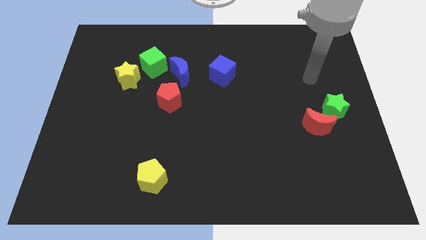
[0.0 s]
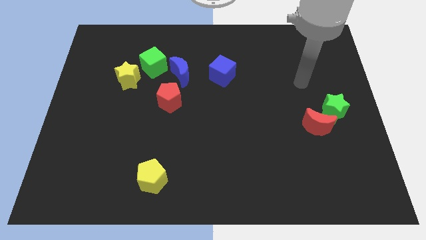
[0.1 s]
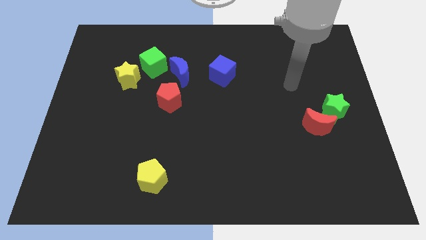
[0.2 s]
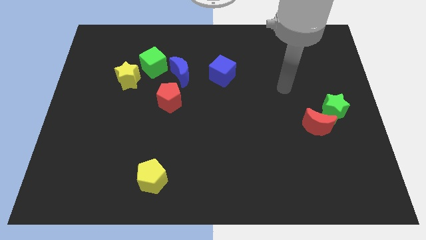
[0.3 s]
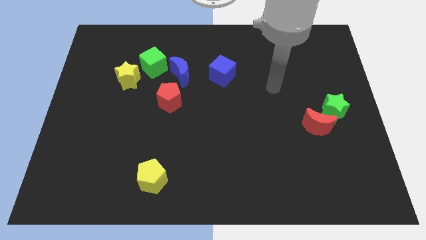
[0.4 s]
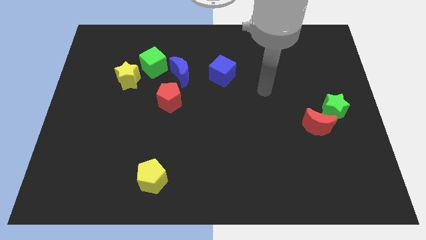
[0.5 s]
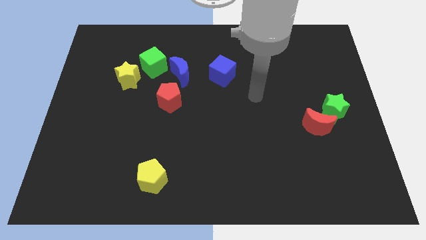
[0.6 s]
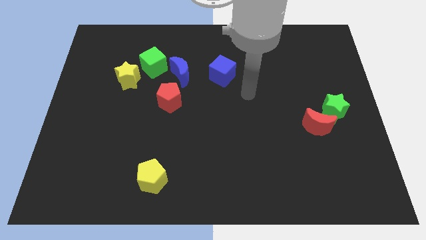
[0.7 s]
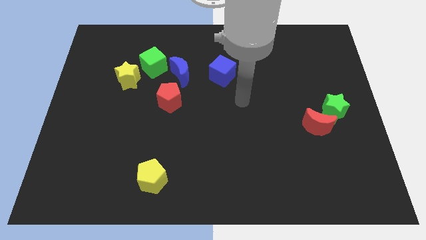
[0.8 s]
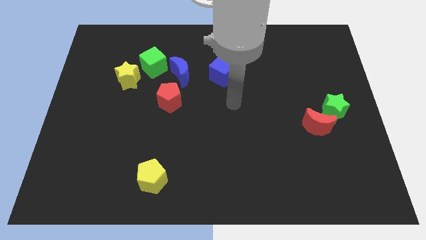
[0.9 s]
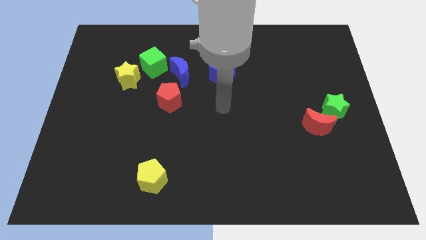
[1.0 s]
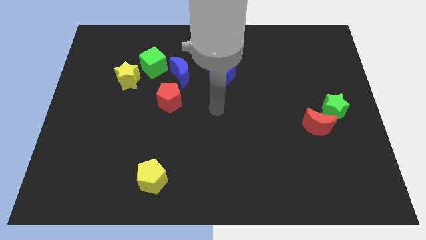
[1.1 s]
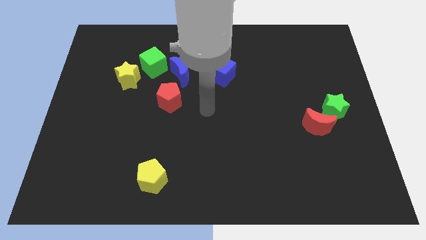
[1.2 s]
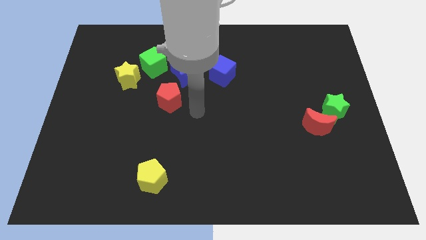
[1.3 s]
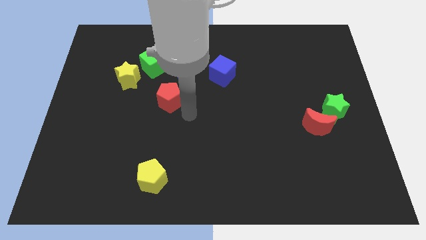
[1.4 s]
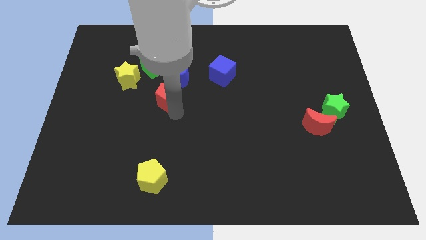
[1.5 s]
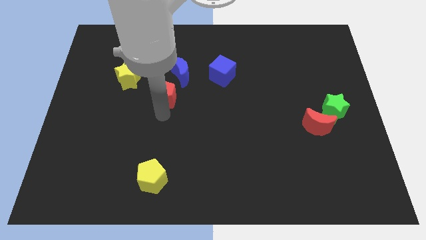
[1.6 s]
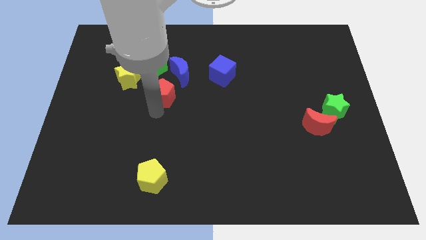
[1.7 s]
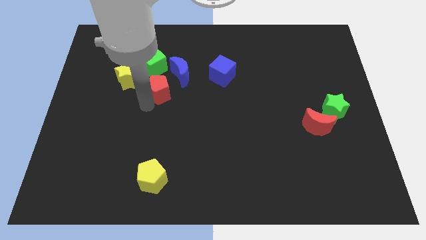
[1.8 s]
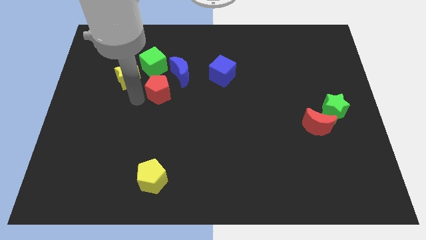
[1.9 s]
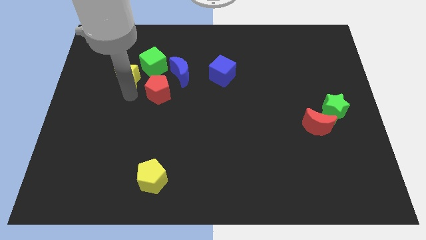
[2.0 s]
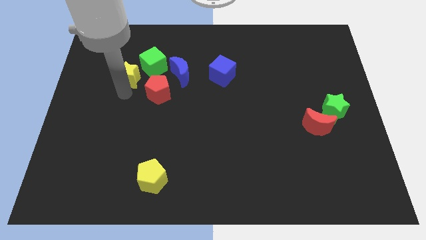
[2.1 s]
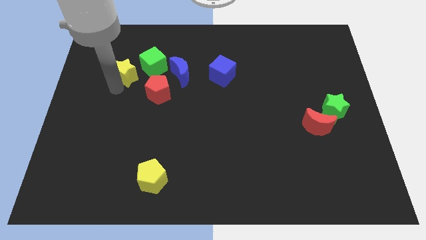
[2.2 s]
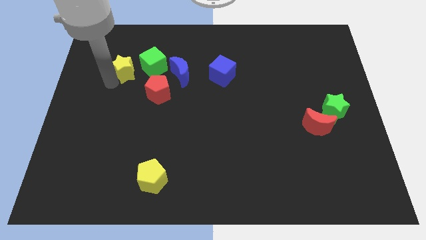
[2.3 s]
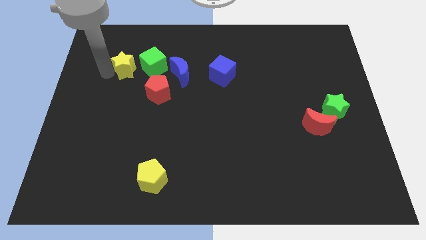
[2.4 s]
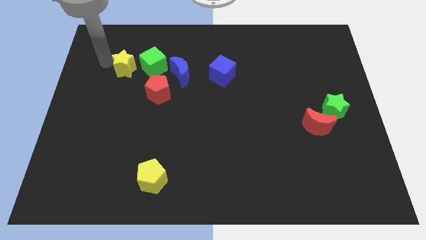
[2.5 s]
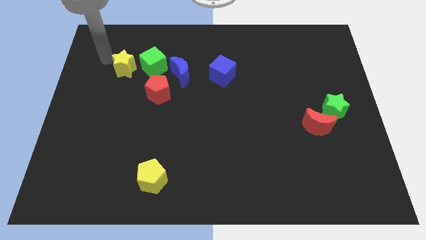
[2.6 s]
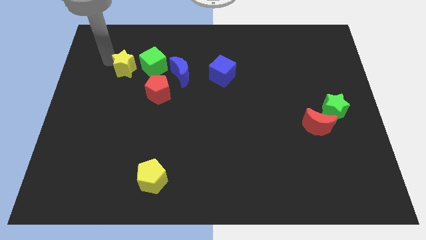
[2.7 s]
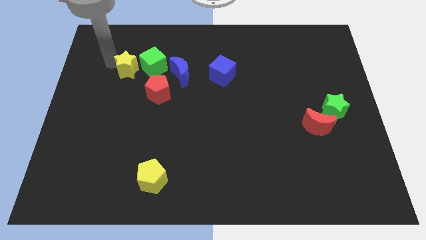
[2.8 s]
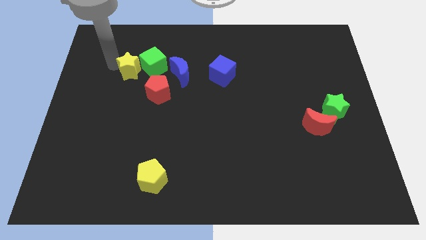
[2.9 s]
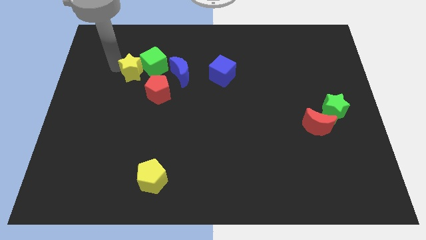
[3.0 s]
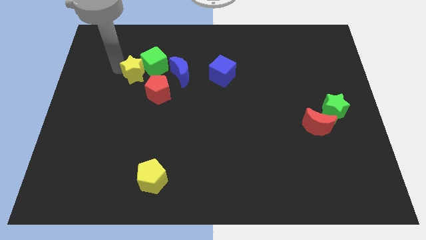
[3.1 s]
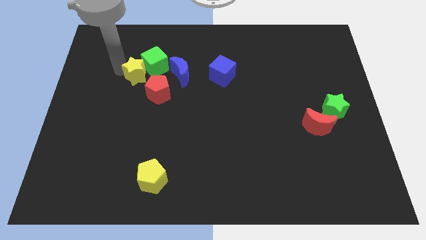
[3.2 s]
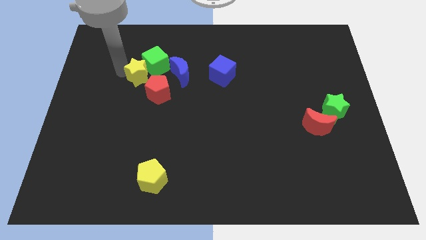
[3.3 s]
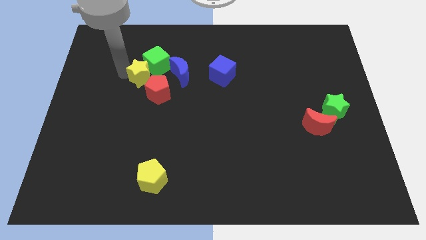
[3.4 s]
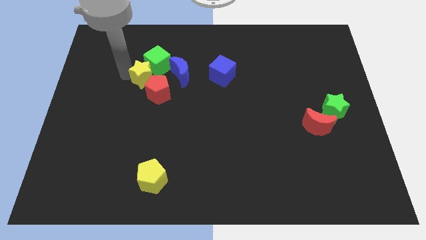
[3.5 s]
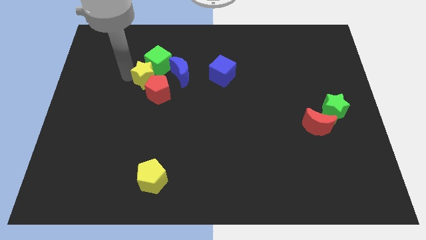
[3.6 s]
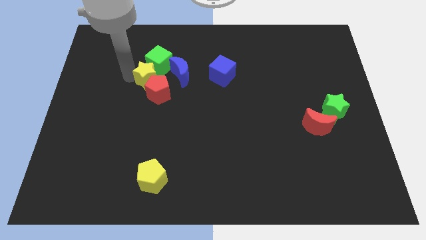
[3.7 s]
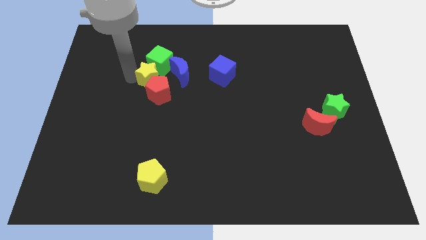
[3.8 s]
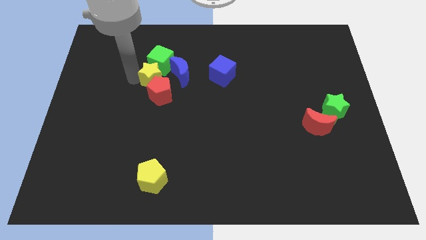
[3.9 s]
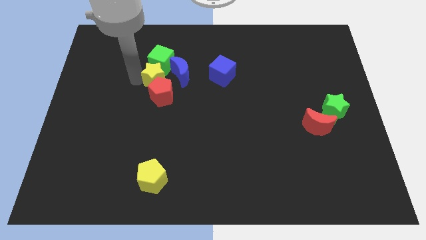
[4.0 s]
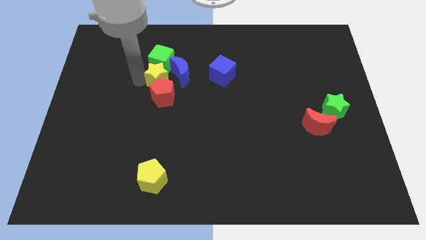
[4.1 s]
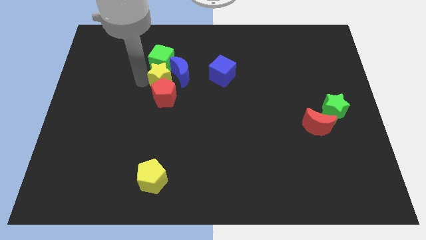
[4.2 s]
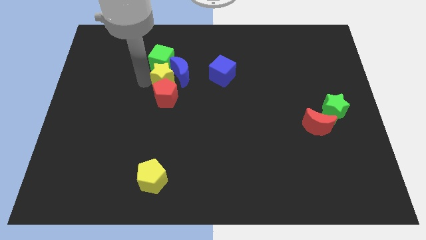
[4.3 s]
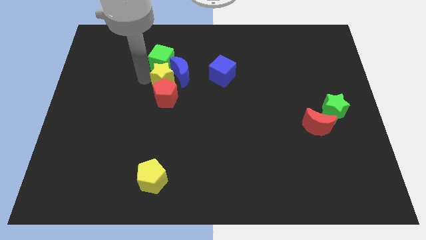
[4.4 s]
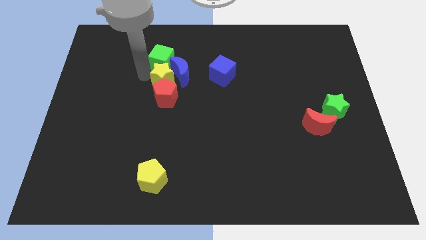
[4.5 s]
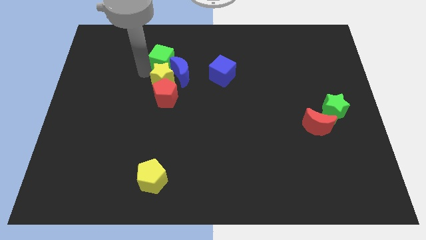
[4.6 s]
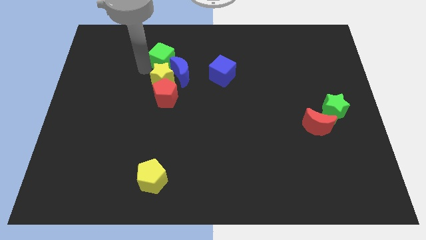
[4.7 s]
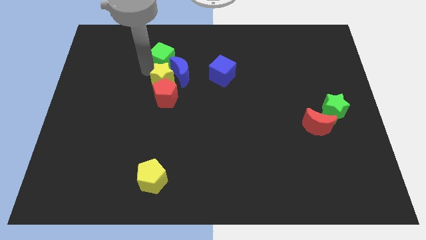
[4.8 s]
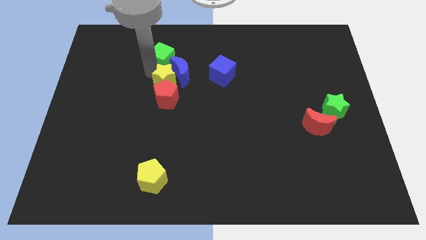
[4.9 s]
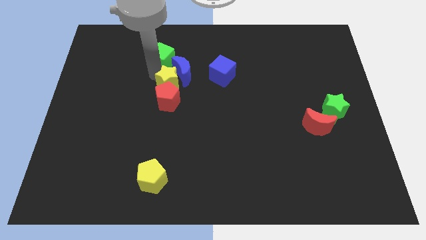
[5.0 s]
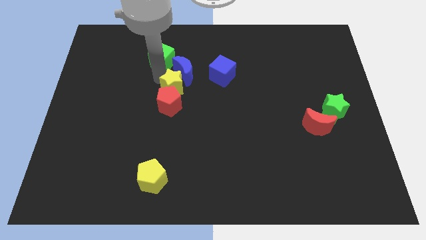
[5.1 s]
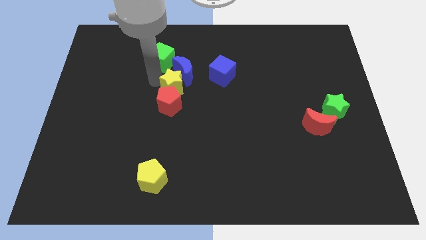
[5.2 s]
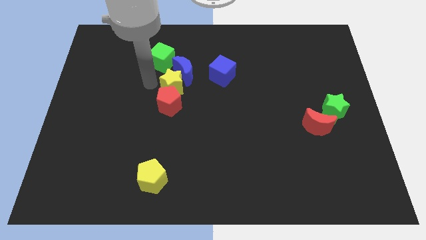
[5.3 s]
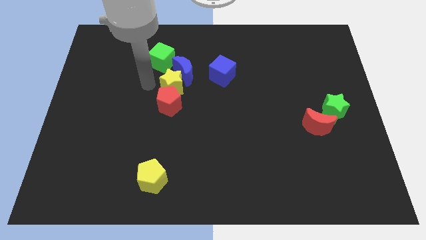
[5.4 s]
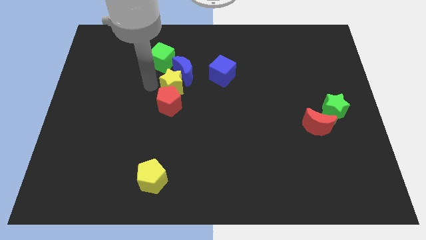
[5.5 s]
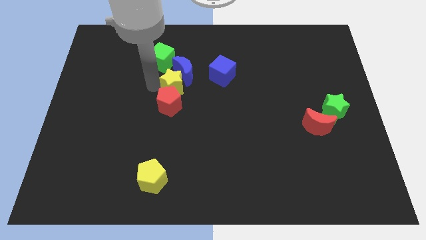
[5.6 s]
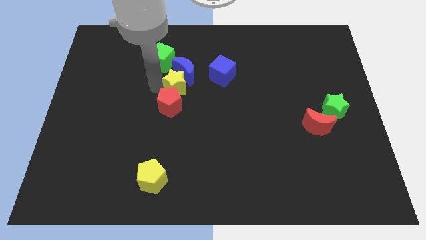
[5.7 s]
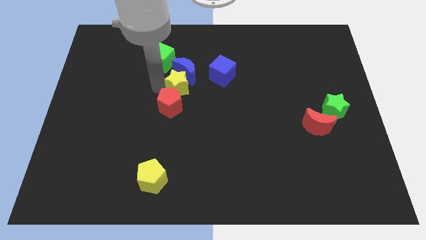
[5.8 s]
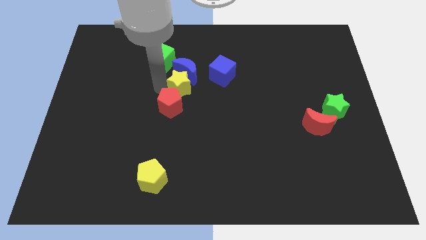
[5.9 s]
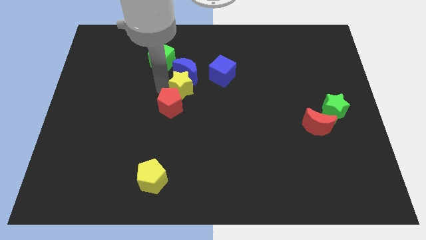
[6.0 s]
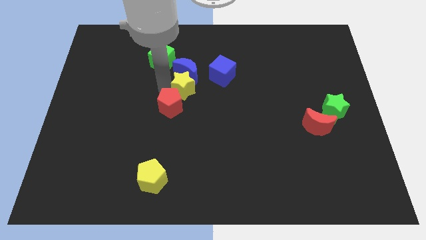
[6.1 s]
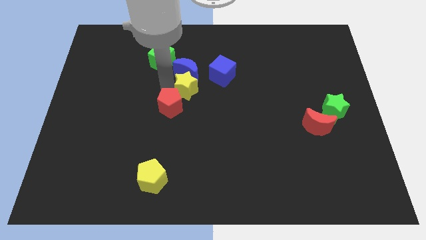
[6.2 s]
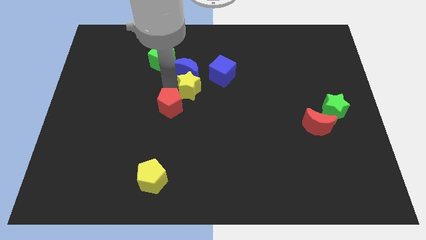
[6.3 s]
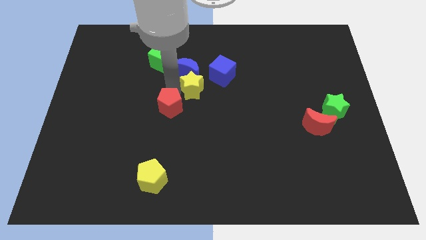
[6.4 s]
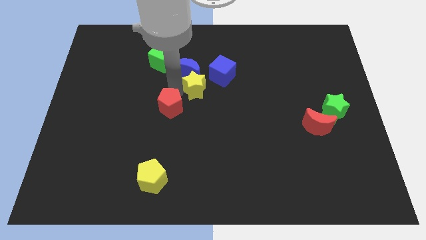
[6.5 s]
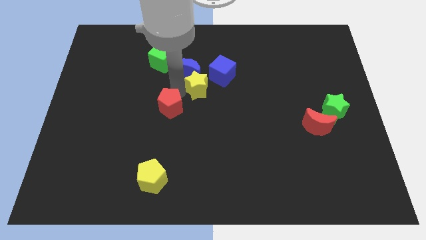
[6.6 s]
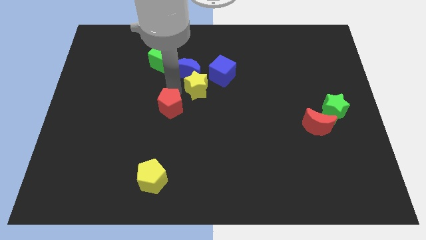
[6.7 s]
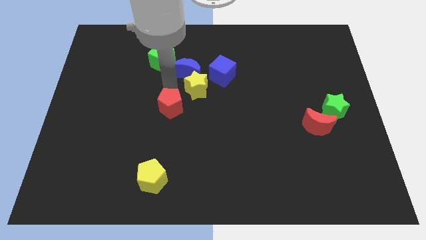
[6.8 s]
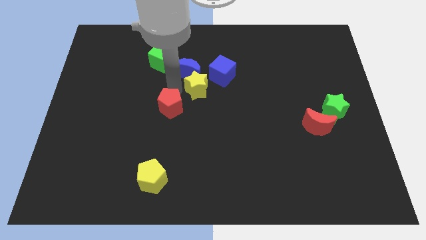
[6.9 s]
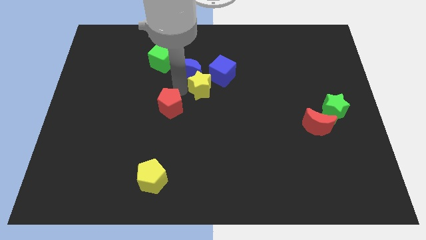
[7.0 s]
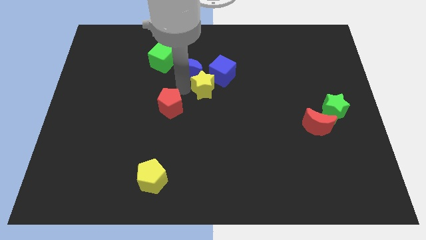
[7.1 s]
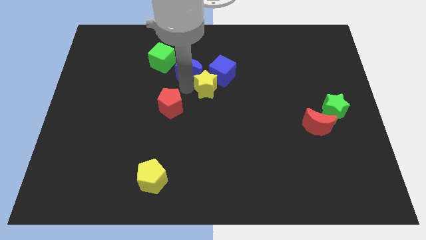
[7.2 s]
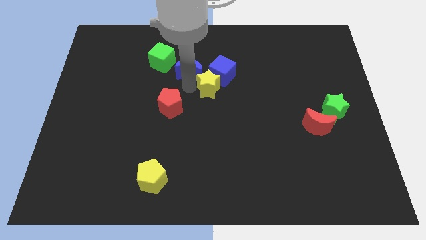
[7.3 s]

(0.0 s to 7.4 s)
slide the yellow star right

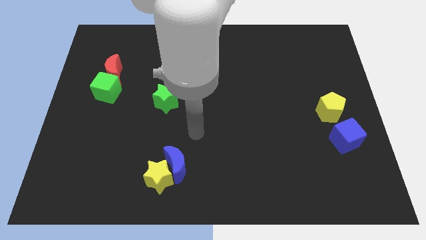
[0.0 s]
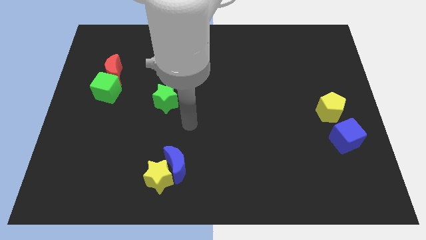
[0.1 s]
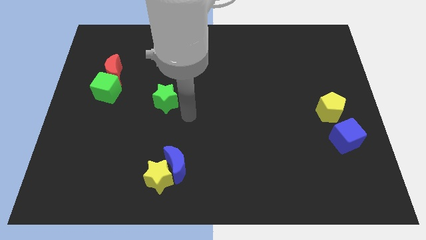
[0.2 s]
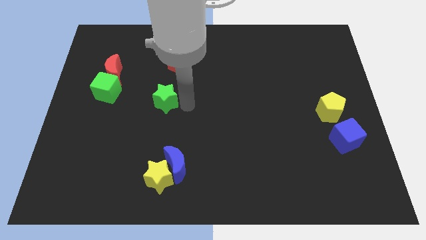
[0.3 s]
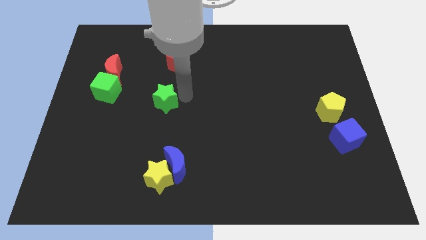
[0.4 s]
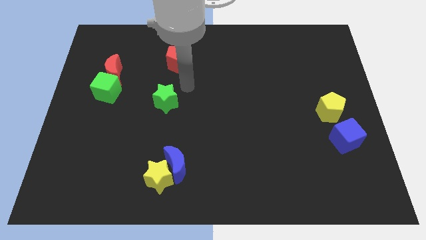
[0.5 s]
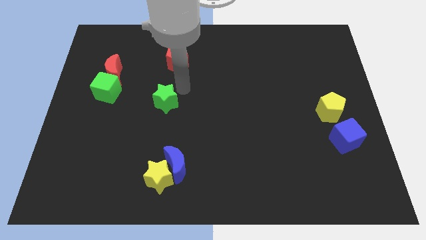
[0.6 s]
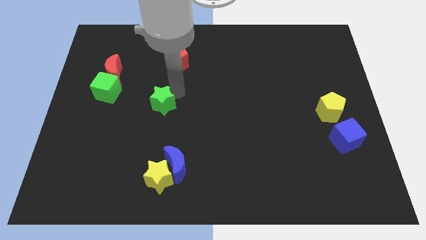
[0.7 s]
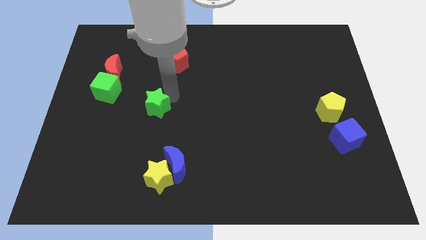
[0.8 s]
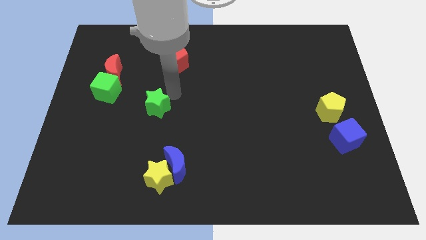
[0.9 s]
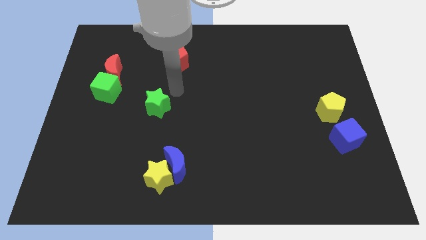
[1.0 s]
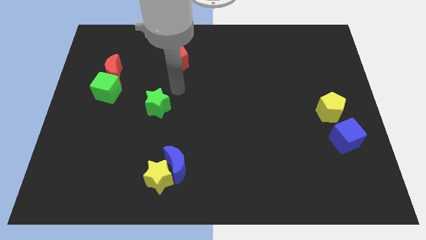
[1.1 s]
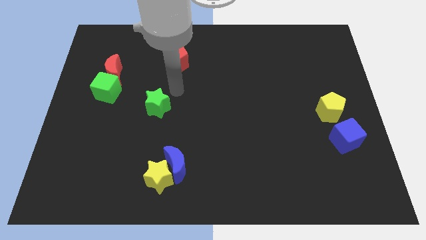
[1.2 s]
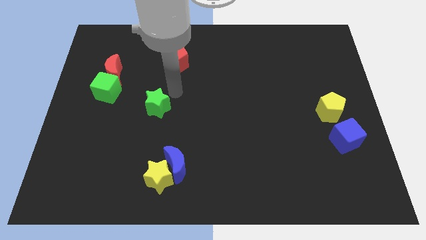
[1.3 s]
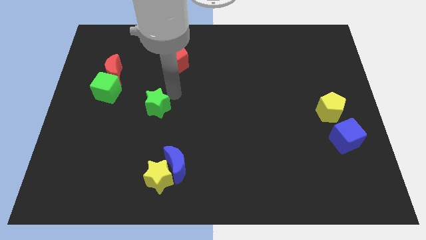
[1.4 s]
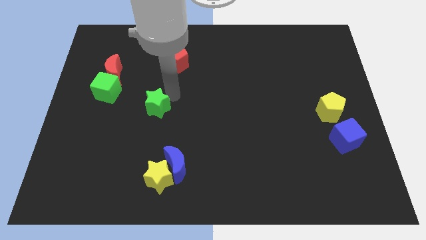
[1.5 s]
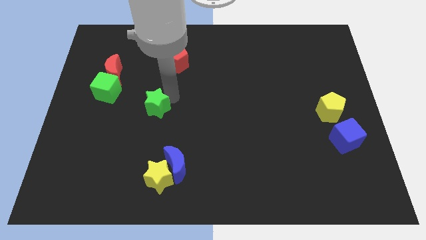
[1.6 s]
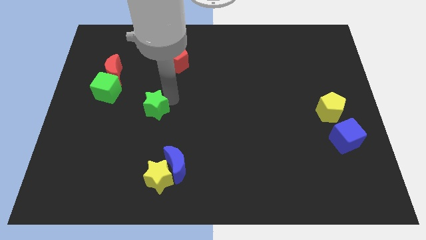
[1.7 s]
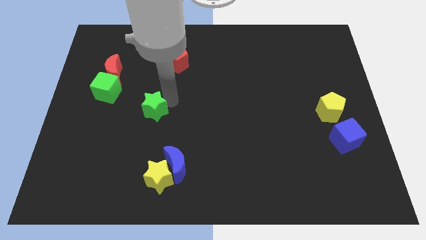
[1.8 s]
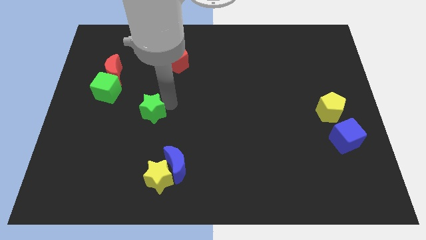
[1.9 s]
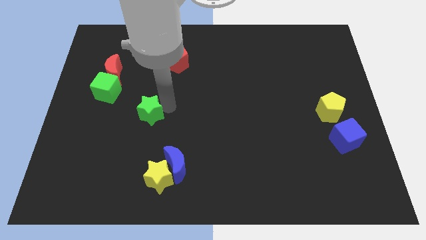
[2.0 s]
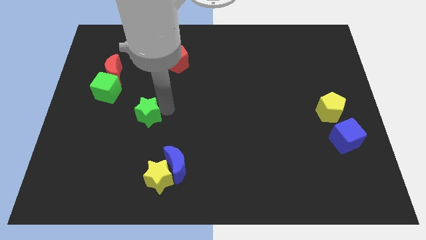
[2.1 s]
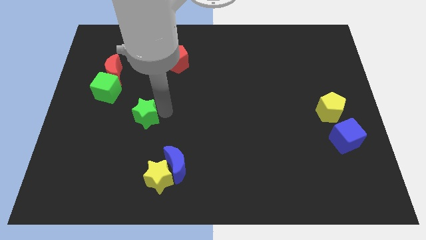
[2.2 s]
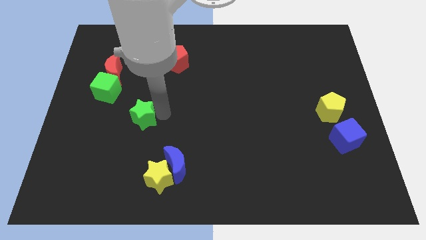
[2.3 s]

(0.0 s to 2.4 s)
slide the green star a little bit downwards and then left
